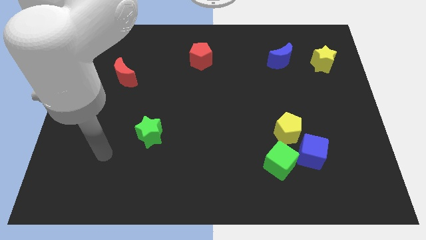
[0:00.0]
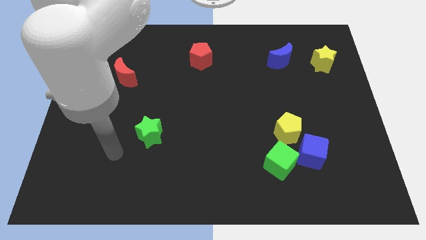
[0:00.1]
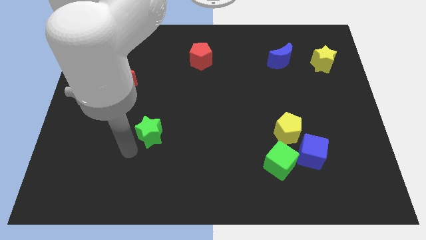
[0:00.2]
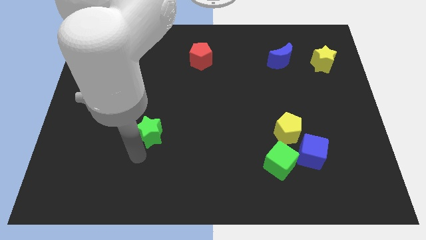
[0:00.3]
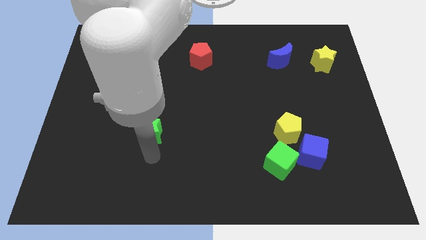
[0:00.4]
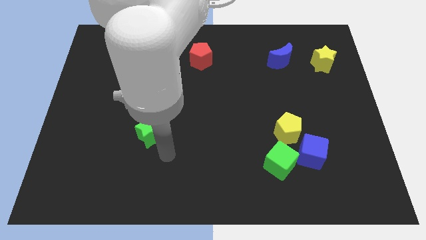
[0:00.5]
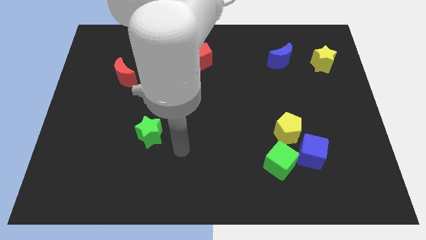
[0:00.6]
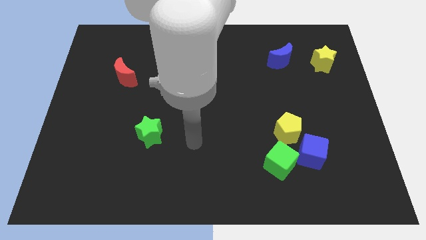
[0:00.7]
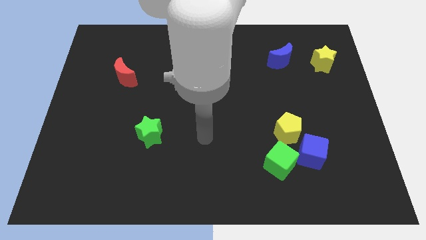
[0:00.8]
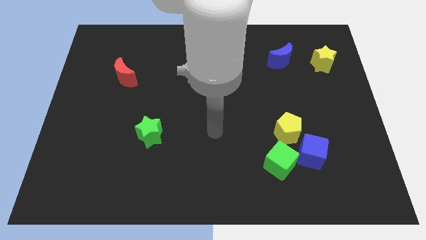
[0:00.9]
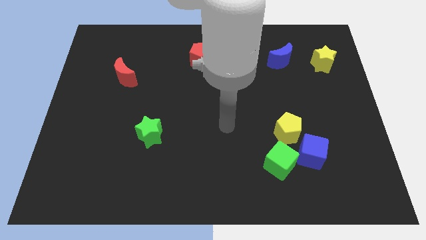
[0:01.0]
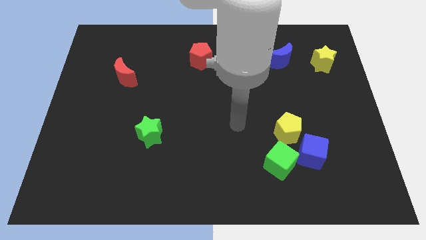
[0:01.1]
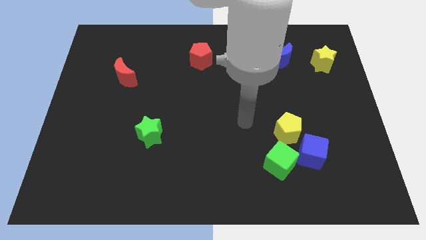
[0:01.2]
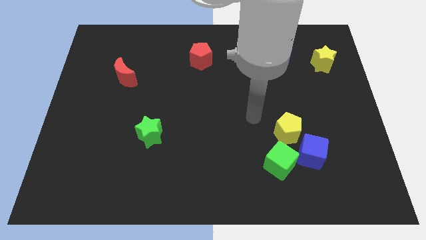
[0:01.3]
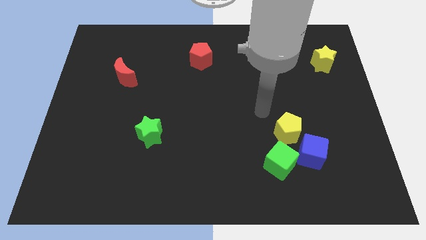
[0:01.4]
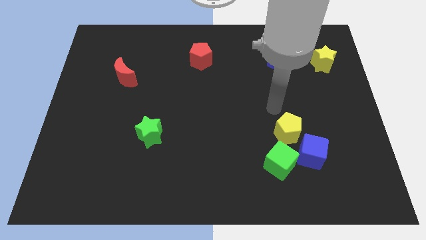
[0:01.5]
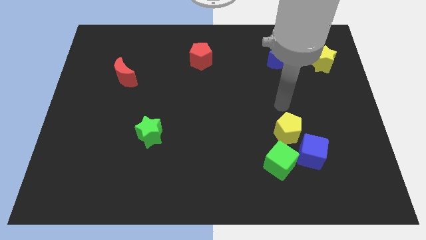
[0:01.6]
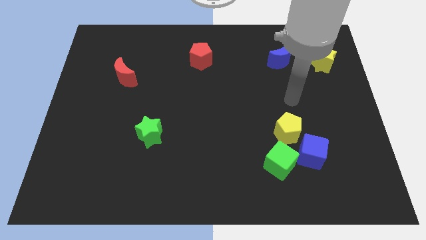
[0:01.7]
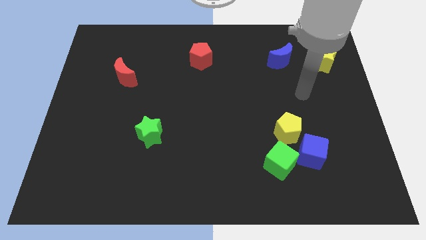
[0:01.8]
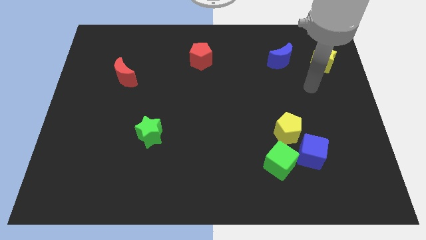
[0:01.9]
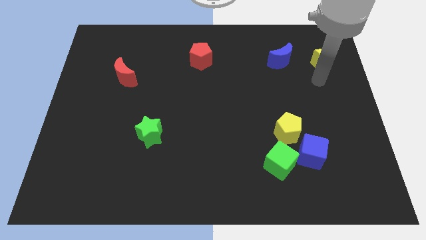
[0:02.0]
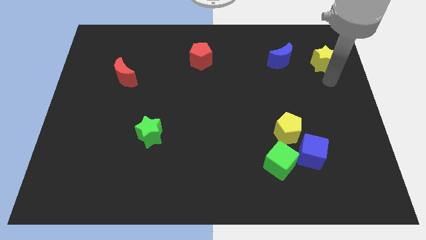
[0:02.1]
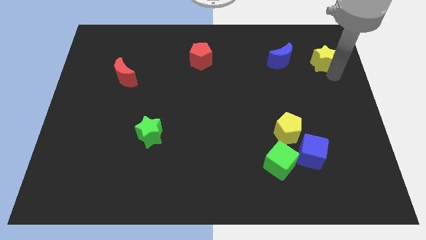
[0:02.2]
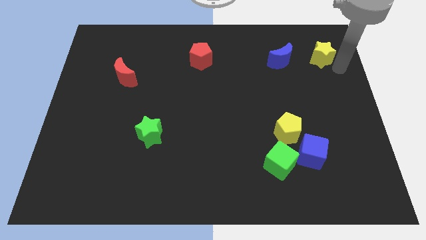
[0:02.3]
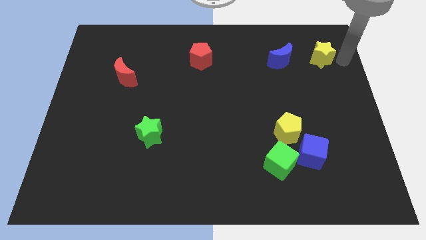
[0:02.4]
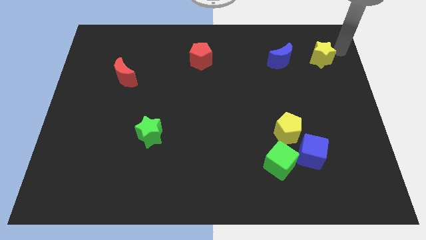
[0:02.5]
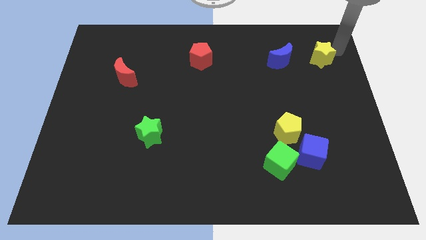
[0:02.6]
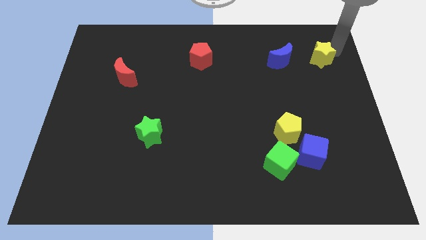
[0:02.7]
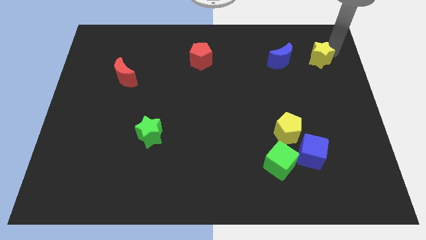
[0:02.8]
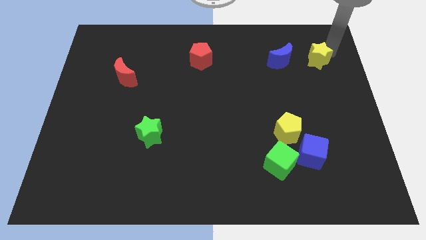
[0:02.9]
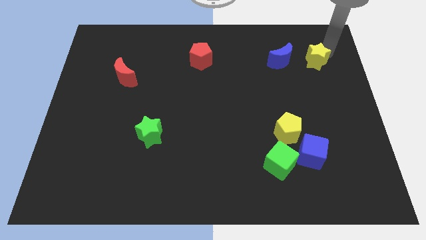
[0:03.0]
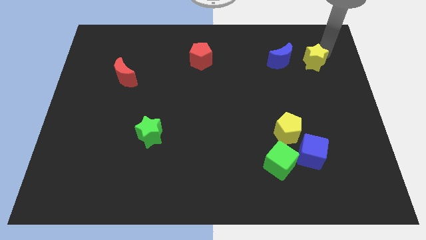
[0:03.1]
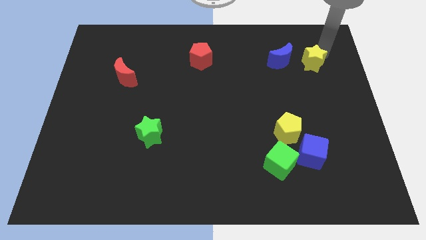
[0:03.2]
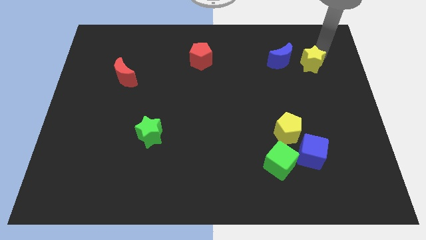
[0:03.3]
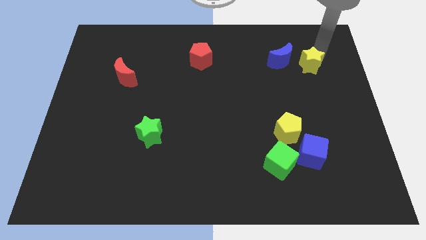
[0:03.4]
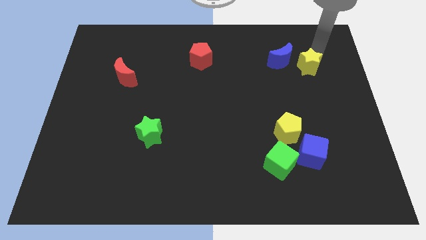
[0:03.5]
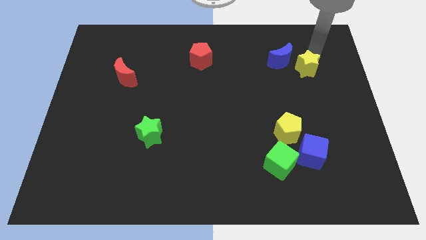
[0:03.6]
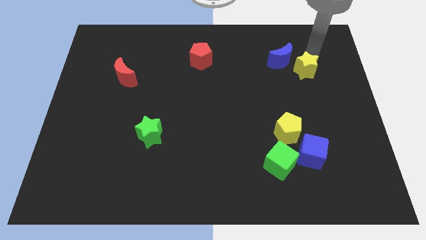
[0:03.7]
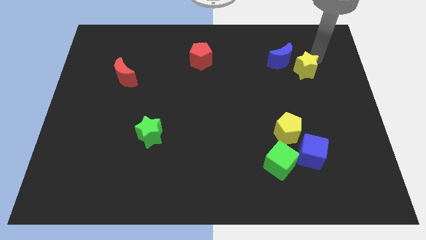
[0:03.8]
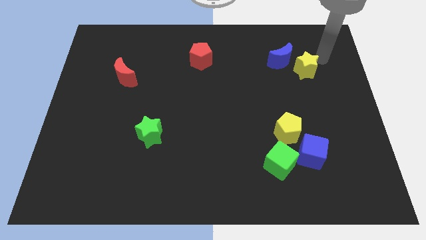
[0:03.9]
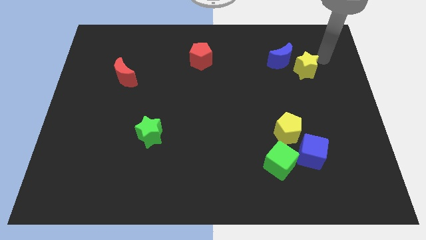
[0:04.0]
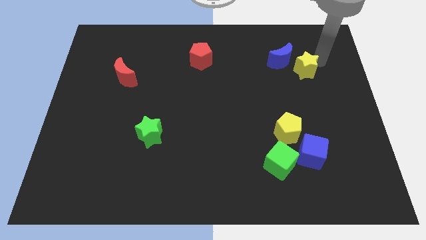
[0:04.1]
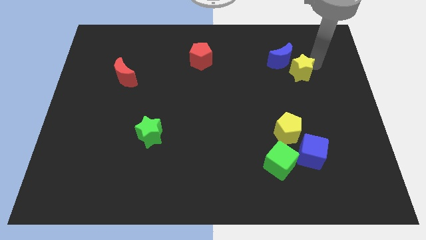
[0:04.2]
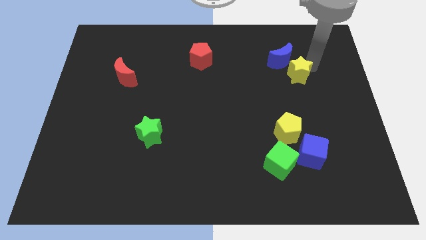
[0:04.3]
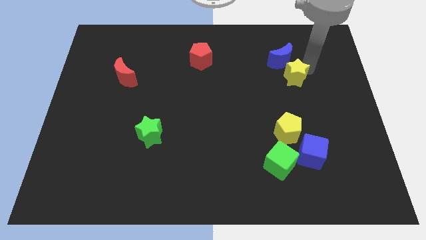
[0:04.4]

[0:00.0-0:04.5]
slide the yellow star a little to the left

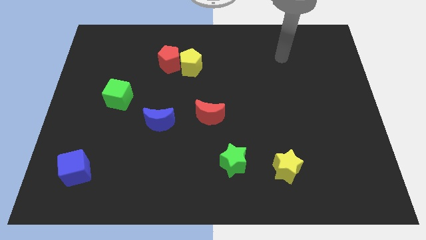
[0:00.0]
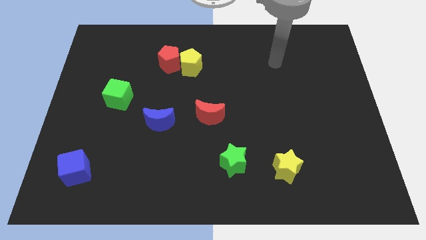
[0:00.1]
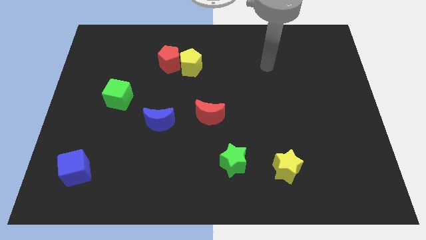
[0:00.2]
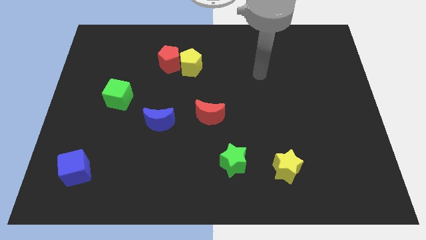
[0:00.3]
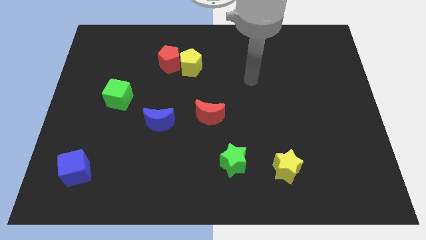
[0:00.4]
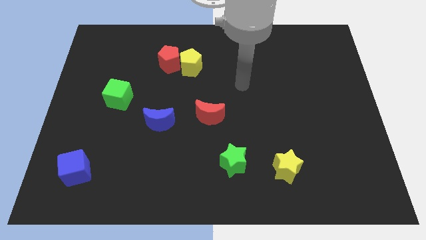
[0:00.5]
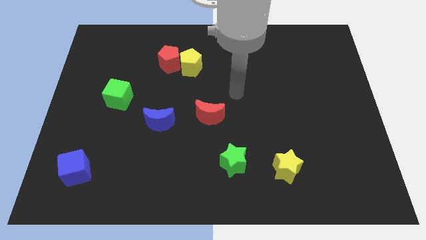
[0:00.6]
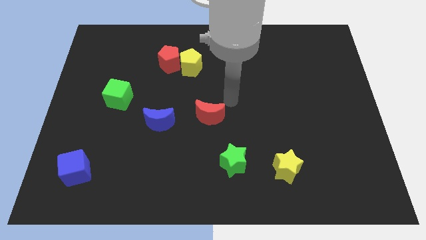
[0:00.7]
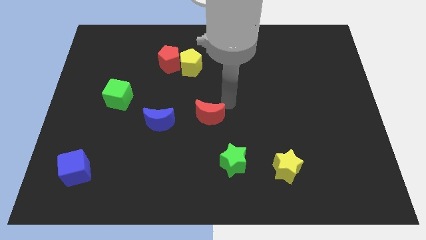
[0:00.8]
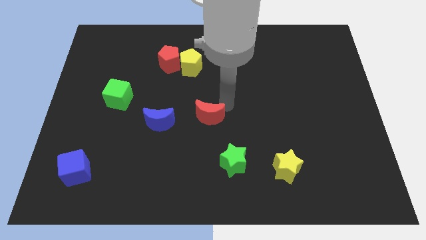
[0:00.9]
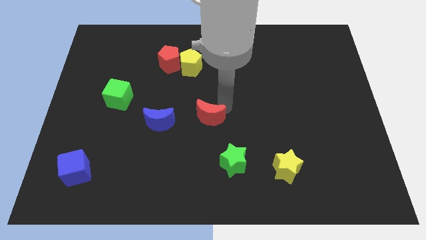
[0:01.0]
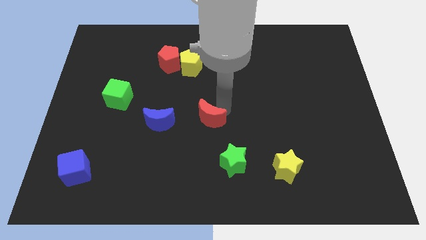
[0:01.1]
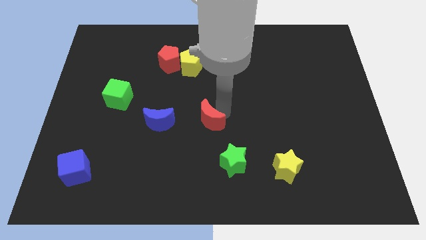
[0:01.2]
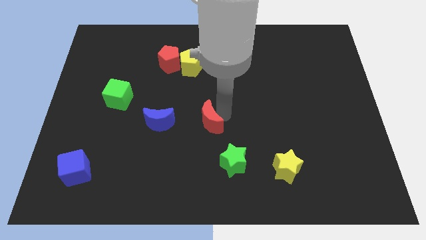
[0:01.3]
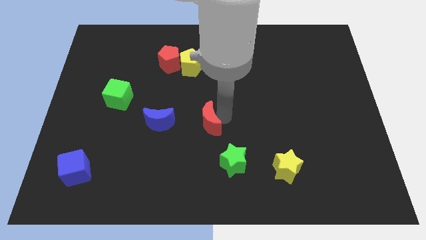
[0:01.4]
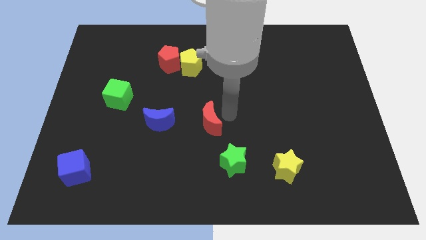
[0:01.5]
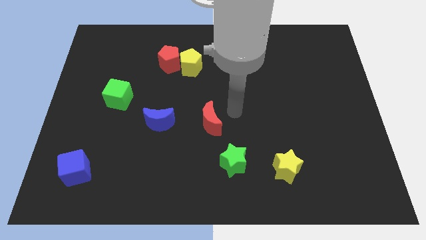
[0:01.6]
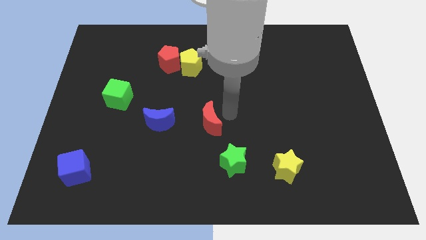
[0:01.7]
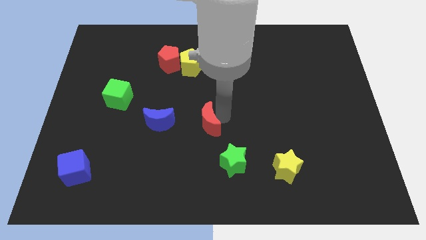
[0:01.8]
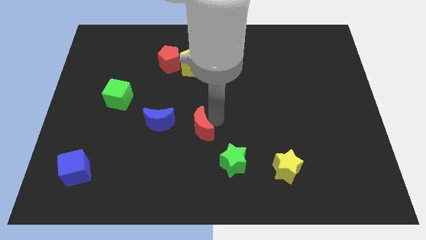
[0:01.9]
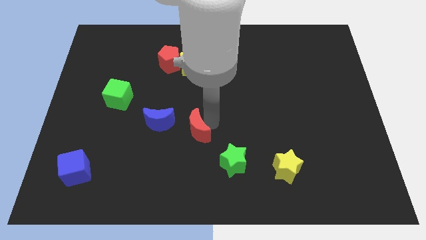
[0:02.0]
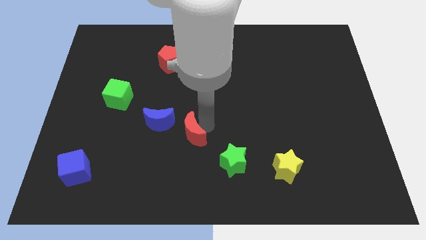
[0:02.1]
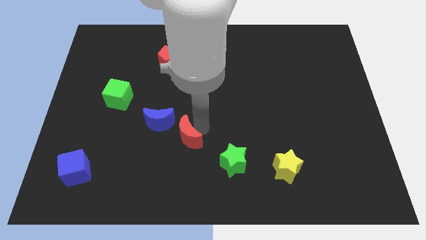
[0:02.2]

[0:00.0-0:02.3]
move the red moon down and to the left somewhat

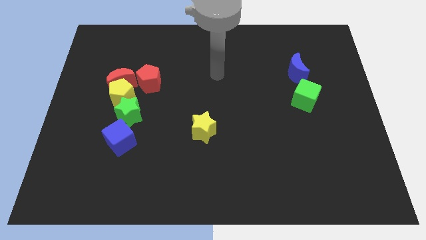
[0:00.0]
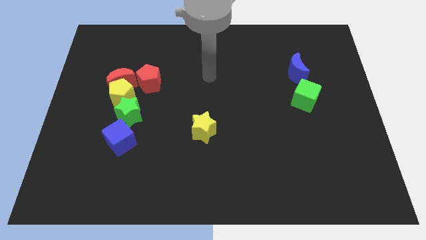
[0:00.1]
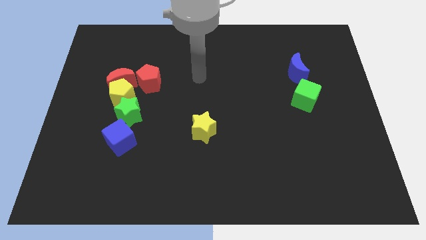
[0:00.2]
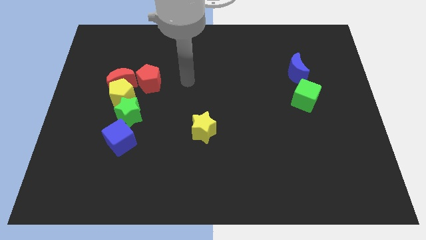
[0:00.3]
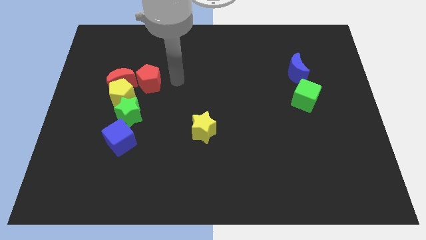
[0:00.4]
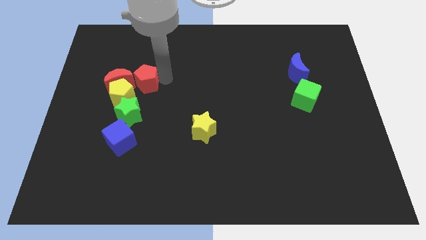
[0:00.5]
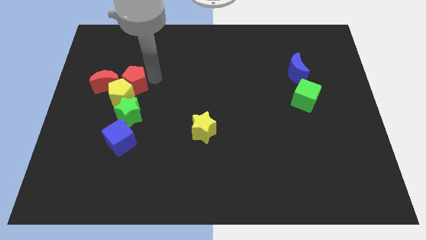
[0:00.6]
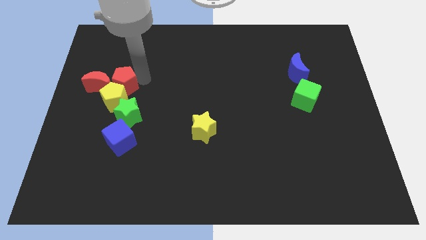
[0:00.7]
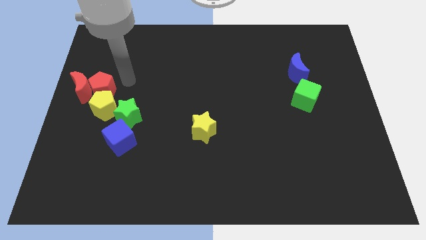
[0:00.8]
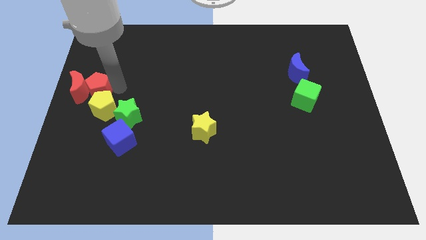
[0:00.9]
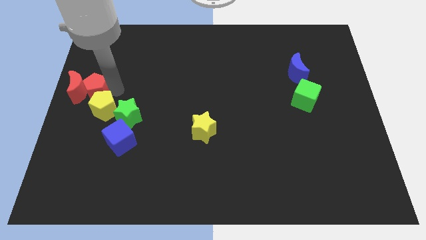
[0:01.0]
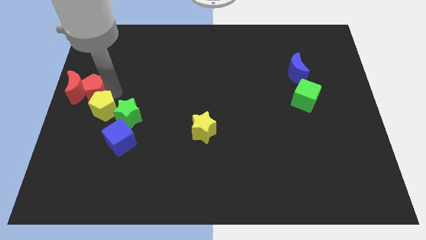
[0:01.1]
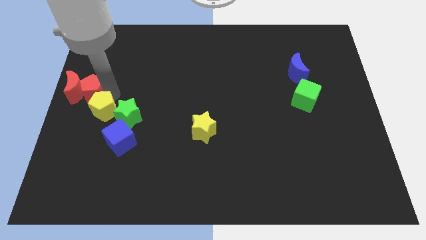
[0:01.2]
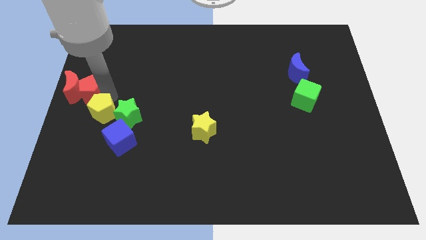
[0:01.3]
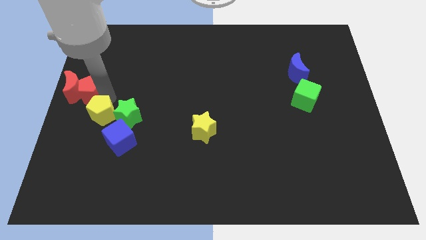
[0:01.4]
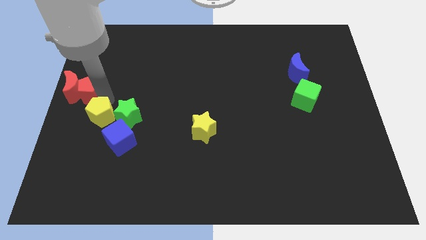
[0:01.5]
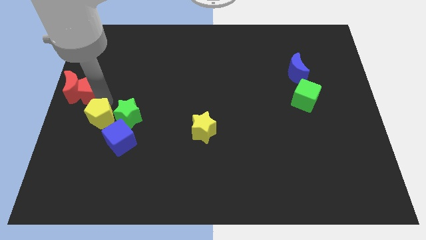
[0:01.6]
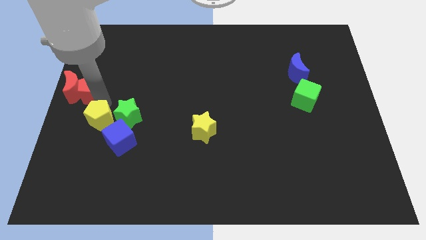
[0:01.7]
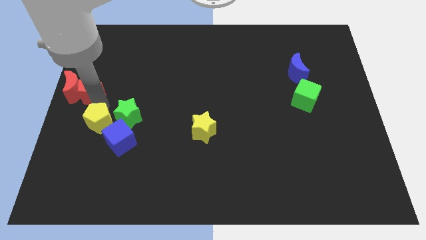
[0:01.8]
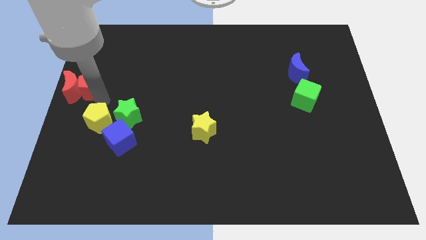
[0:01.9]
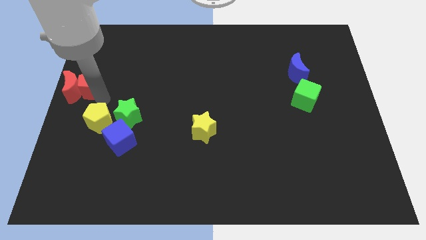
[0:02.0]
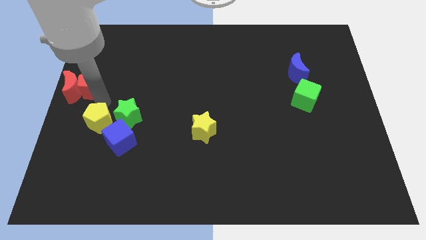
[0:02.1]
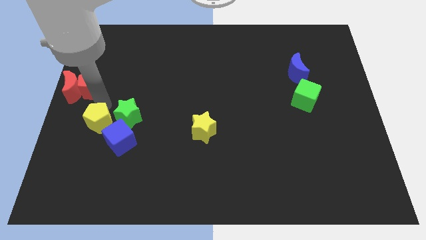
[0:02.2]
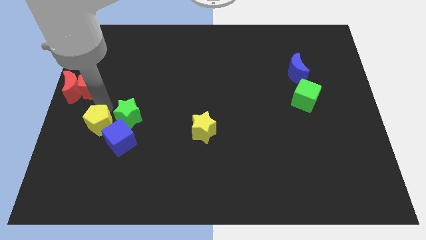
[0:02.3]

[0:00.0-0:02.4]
slide the yellow pentagon down a little
